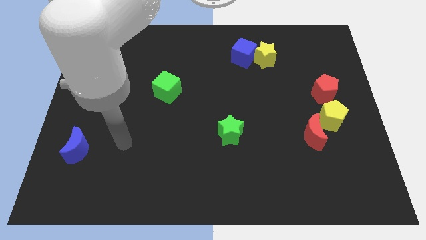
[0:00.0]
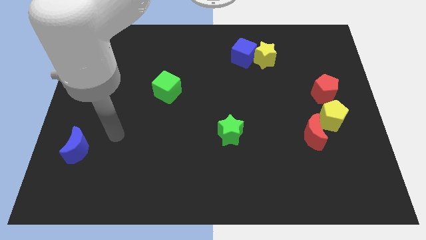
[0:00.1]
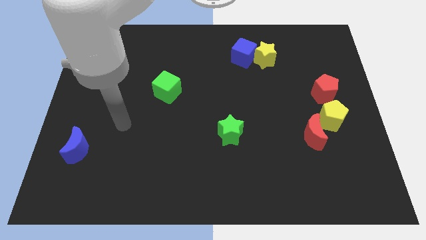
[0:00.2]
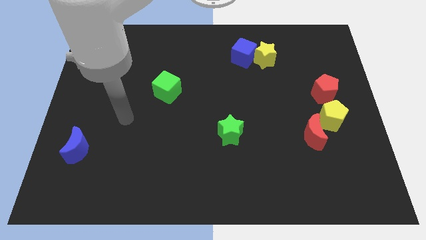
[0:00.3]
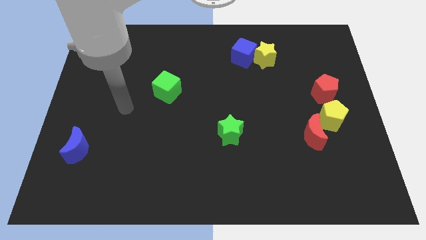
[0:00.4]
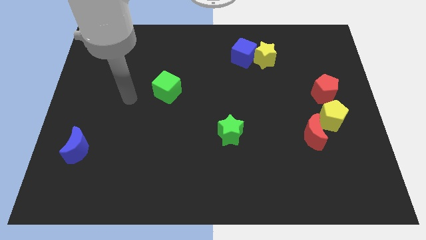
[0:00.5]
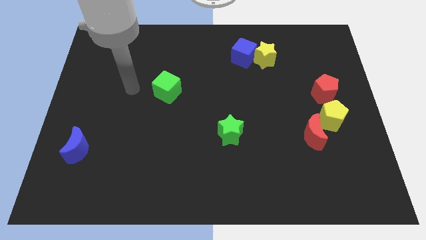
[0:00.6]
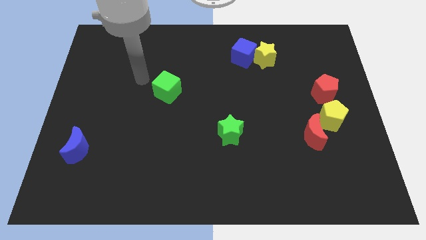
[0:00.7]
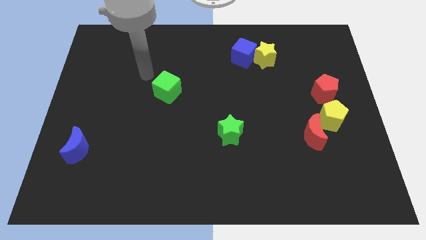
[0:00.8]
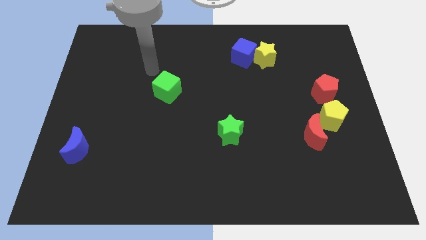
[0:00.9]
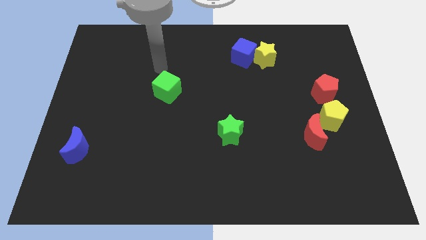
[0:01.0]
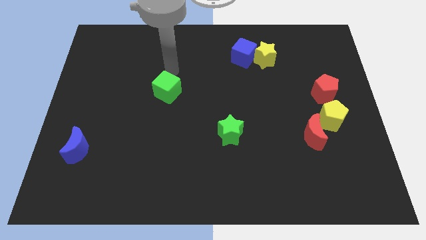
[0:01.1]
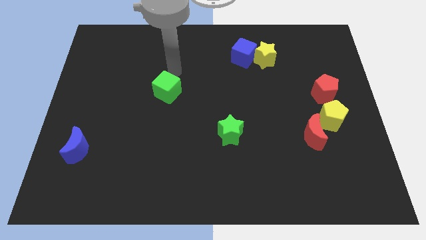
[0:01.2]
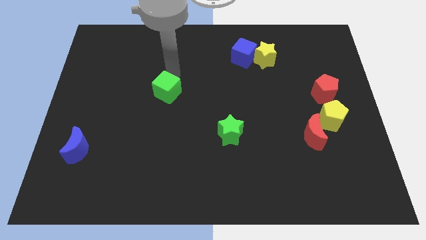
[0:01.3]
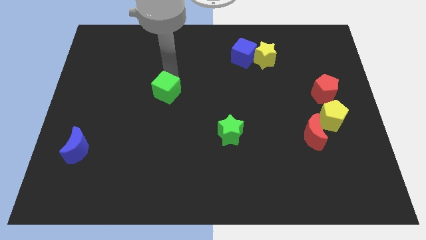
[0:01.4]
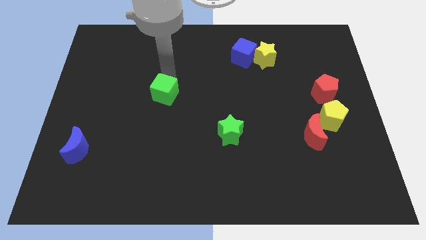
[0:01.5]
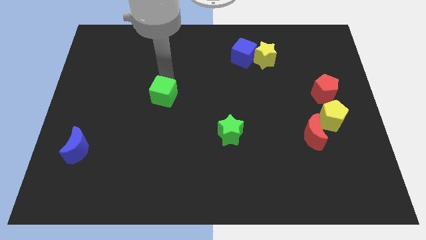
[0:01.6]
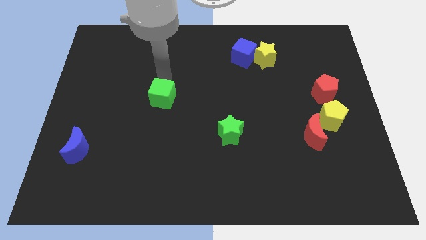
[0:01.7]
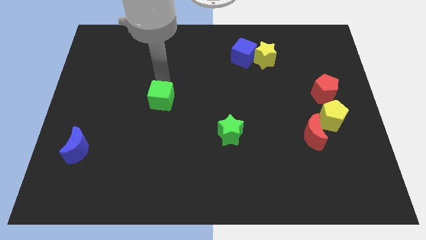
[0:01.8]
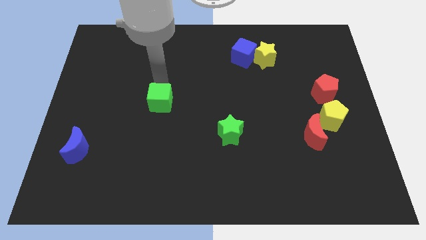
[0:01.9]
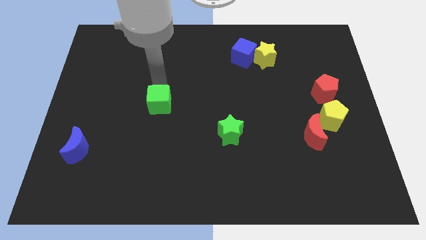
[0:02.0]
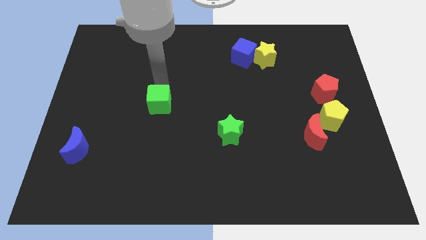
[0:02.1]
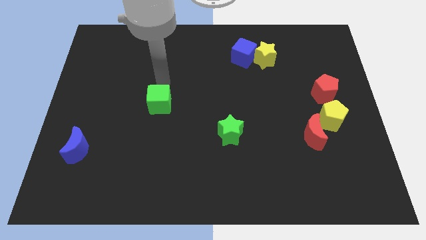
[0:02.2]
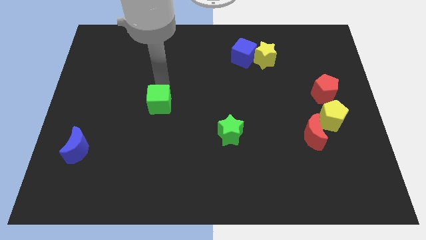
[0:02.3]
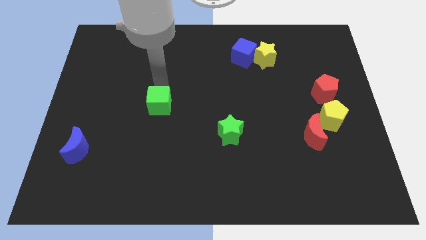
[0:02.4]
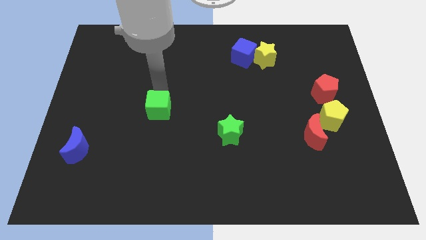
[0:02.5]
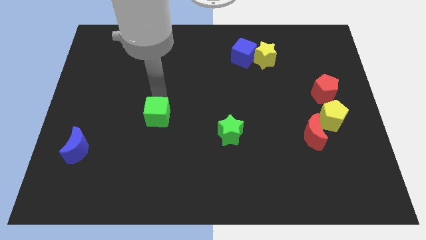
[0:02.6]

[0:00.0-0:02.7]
push the green cube slightly down

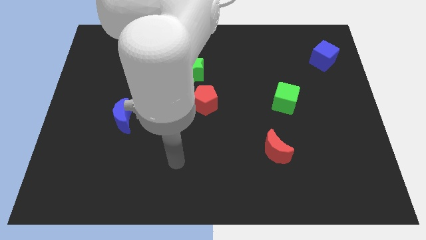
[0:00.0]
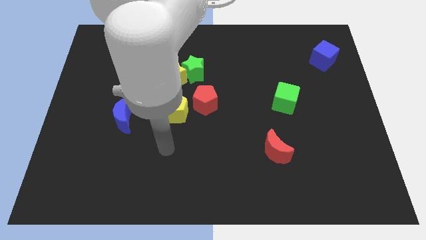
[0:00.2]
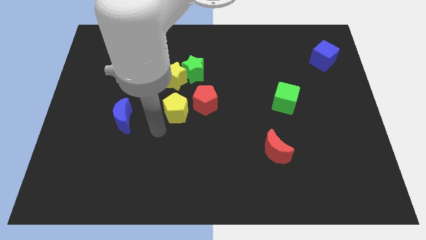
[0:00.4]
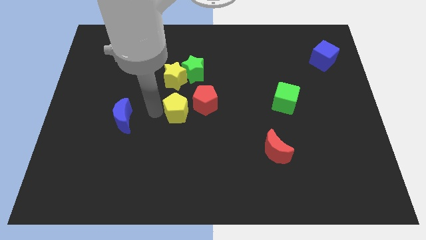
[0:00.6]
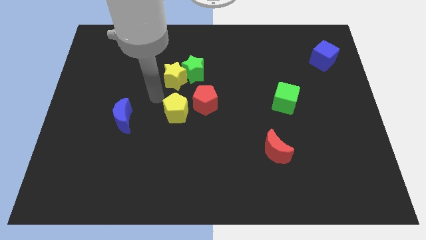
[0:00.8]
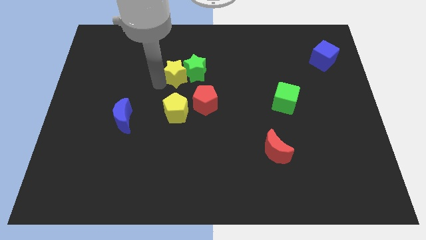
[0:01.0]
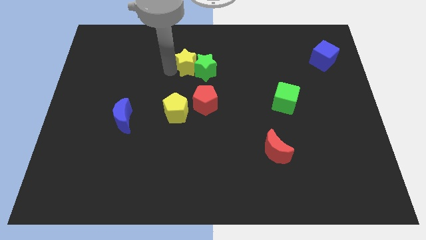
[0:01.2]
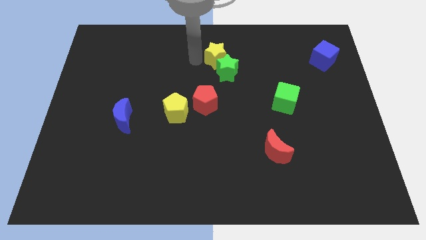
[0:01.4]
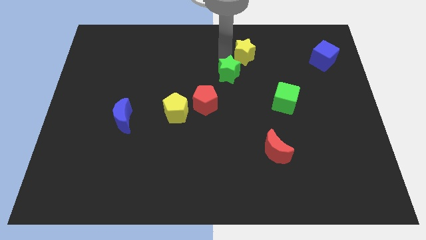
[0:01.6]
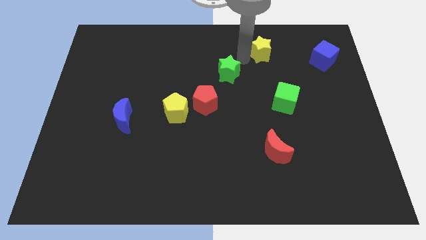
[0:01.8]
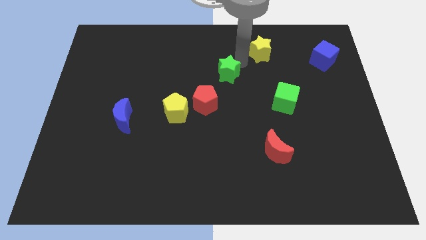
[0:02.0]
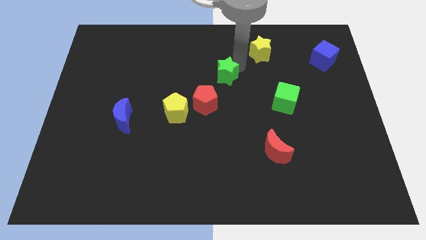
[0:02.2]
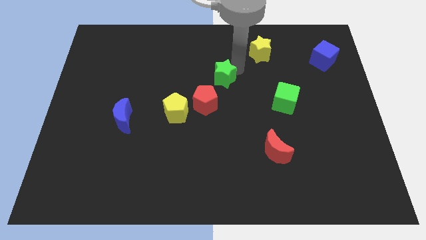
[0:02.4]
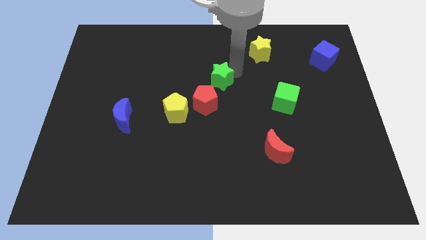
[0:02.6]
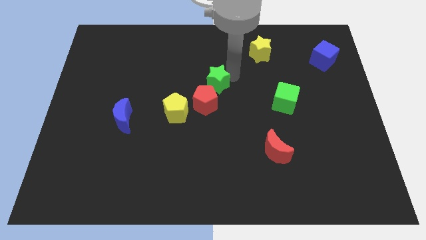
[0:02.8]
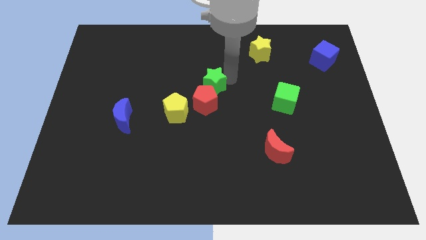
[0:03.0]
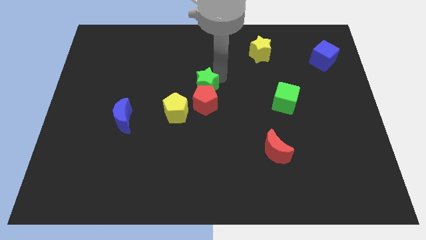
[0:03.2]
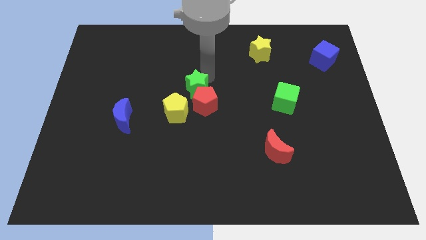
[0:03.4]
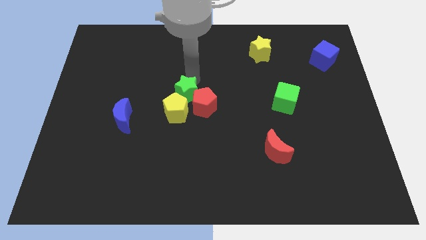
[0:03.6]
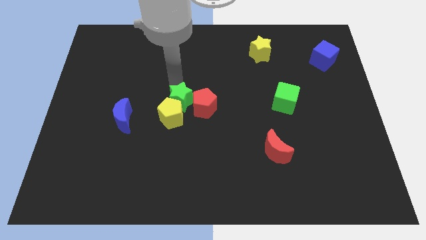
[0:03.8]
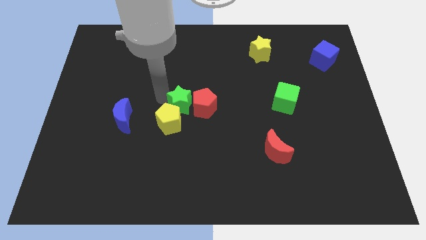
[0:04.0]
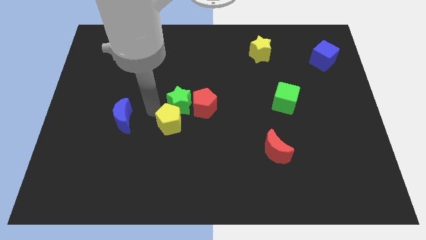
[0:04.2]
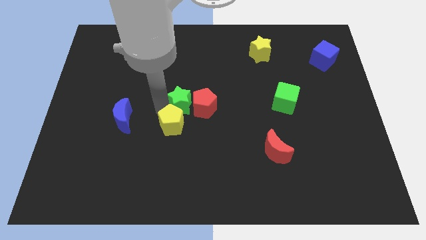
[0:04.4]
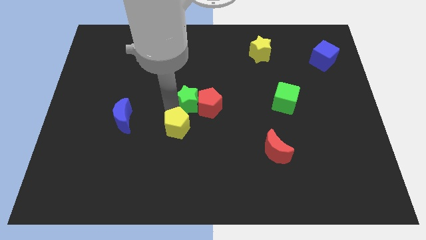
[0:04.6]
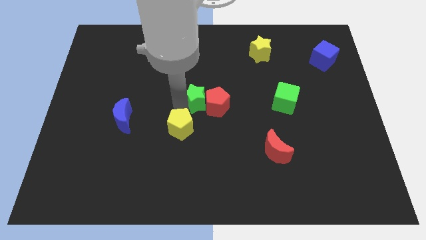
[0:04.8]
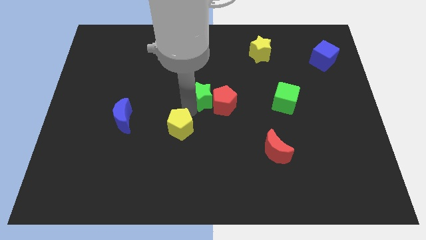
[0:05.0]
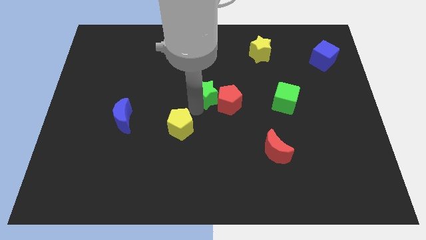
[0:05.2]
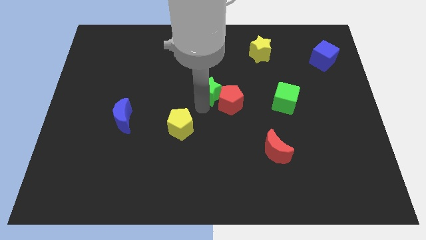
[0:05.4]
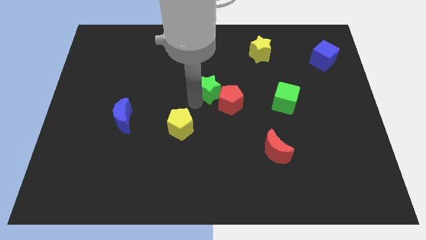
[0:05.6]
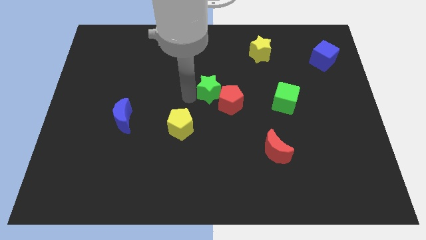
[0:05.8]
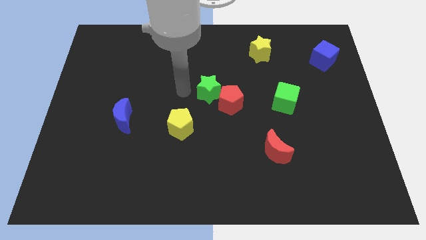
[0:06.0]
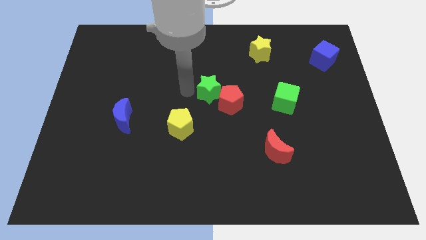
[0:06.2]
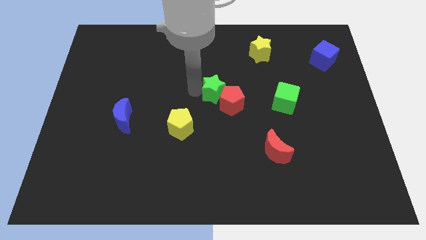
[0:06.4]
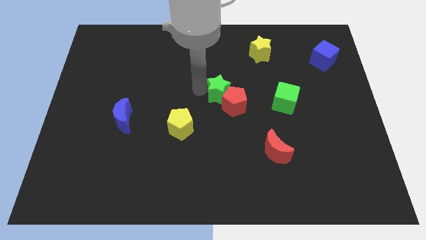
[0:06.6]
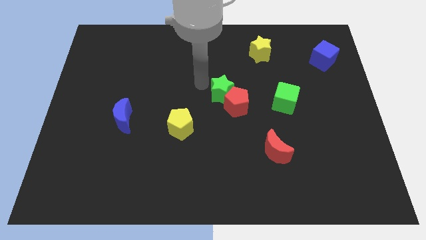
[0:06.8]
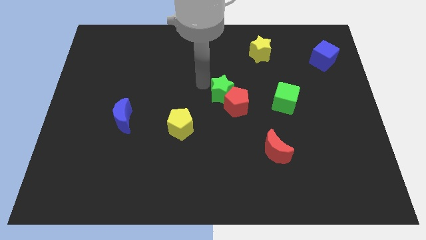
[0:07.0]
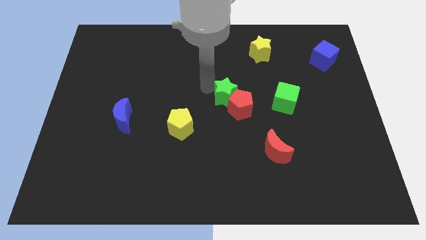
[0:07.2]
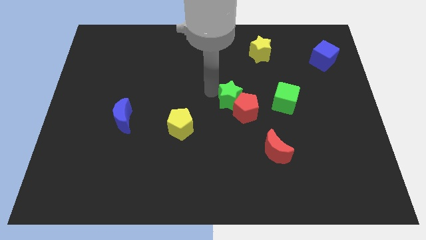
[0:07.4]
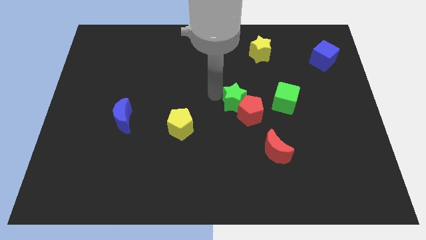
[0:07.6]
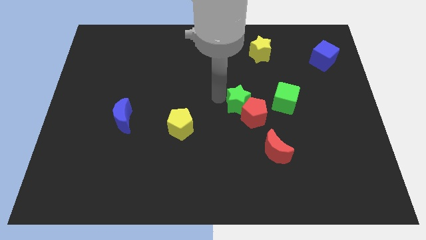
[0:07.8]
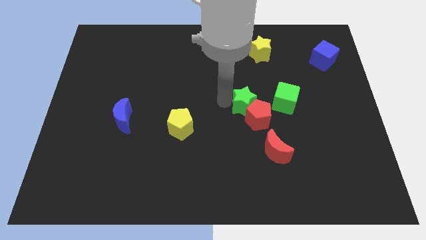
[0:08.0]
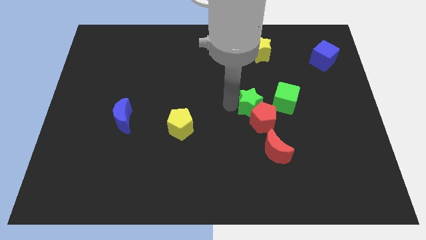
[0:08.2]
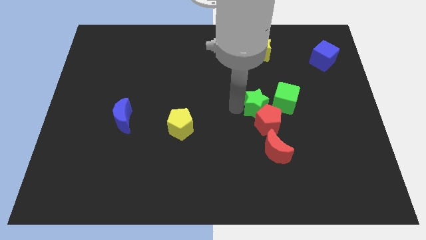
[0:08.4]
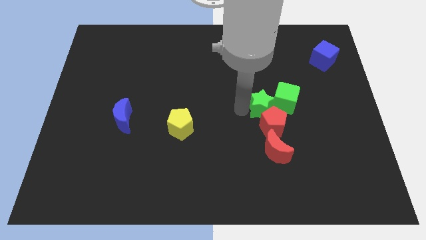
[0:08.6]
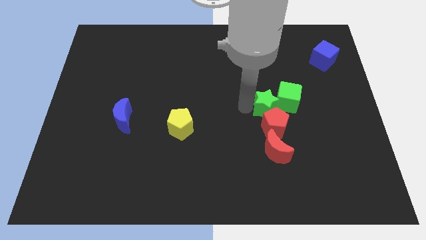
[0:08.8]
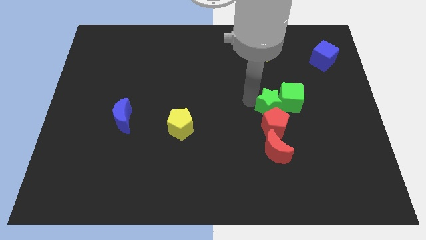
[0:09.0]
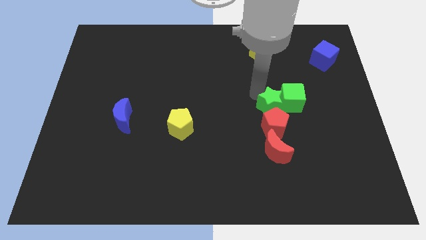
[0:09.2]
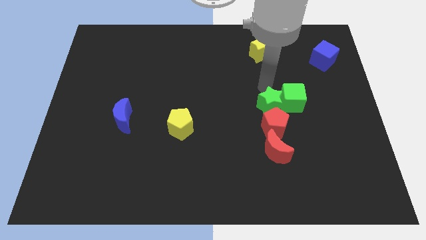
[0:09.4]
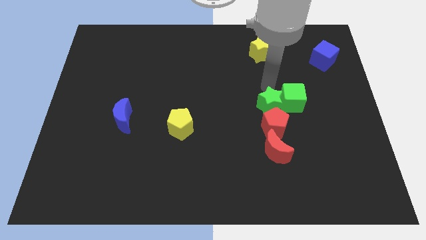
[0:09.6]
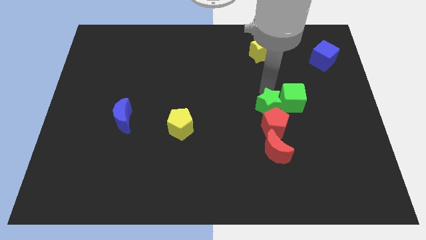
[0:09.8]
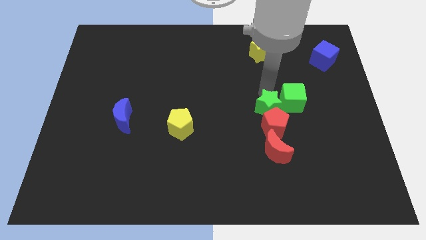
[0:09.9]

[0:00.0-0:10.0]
push the green star downwards and right

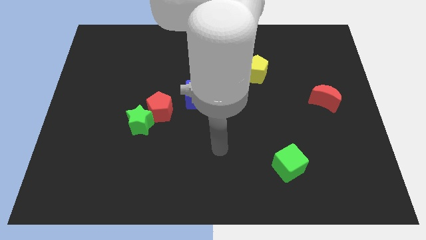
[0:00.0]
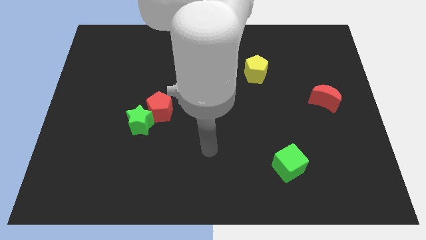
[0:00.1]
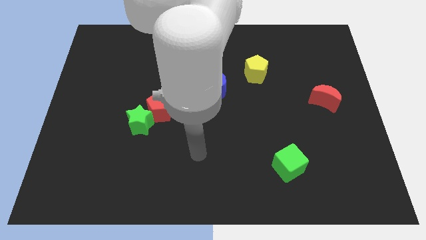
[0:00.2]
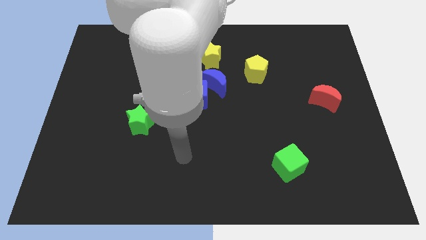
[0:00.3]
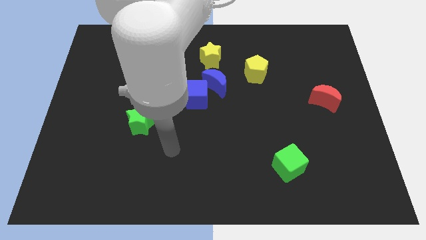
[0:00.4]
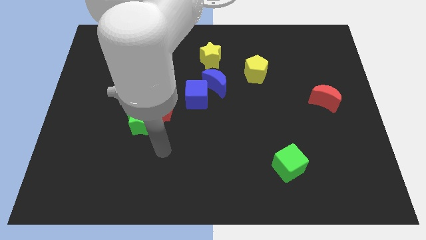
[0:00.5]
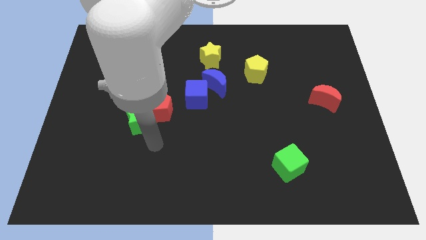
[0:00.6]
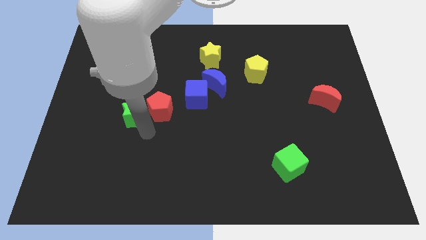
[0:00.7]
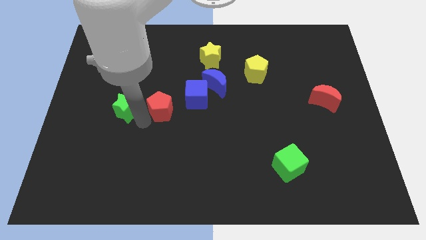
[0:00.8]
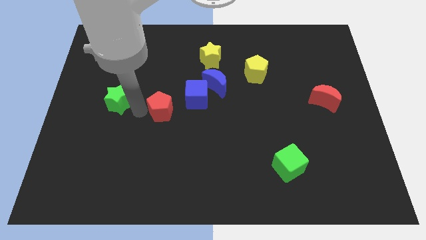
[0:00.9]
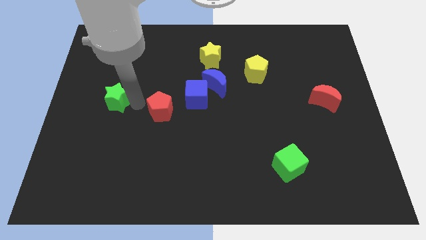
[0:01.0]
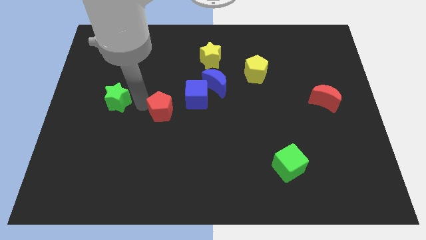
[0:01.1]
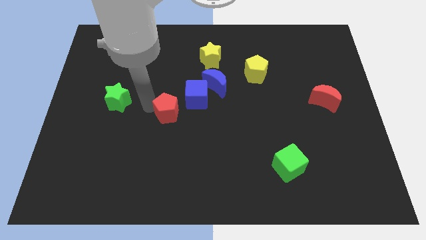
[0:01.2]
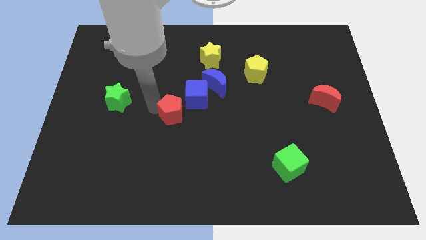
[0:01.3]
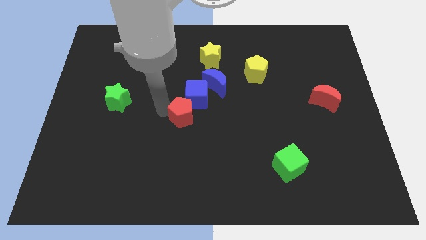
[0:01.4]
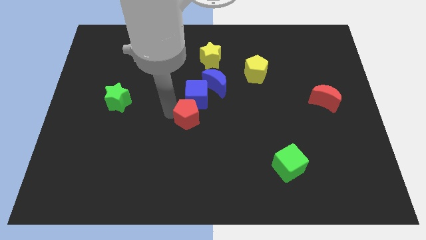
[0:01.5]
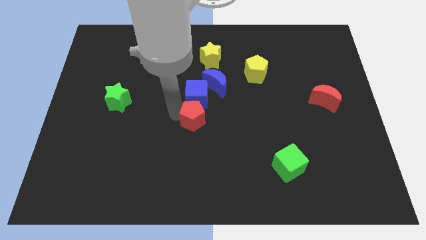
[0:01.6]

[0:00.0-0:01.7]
slightly slide the red pentagon to the right
